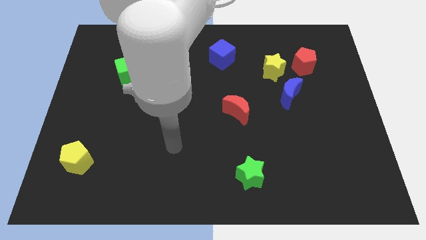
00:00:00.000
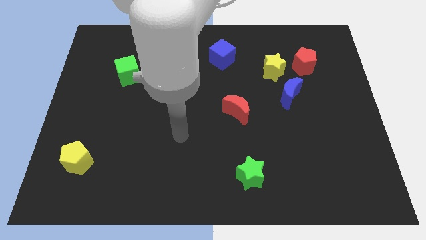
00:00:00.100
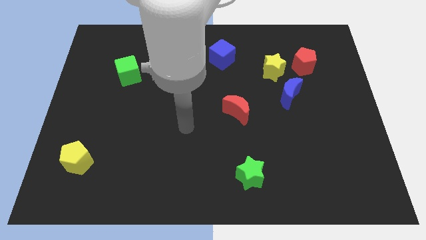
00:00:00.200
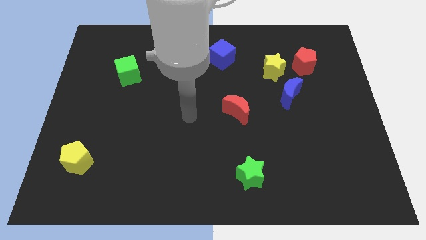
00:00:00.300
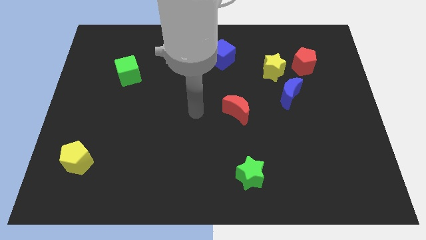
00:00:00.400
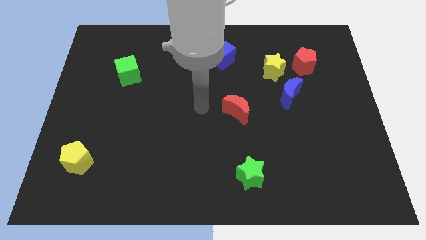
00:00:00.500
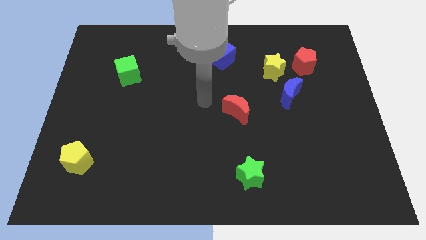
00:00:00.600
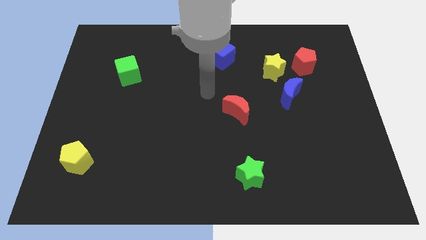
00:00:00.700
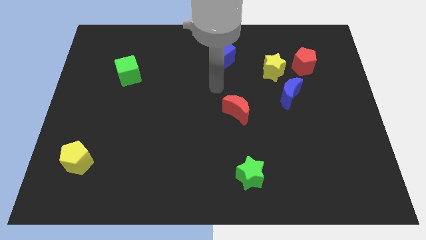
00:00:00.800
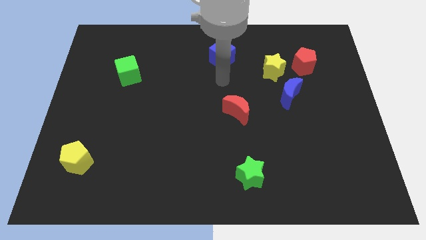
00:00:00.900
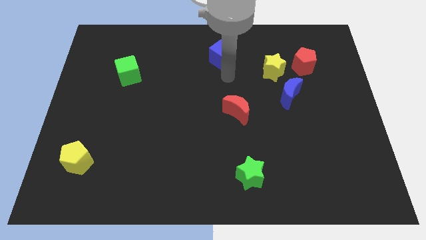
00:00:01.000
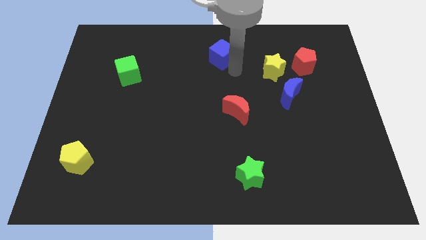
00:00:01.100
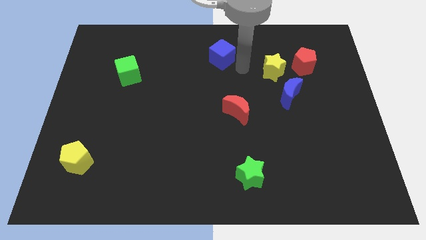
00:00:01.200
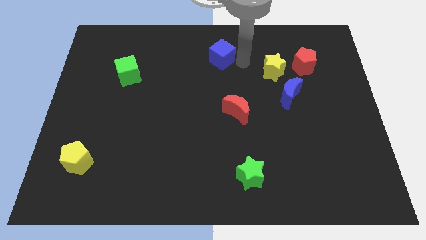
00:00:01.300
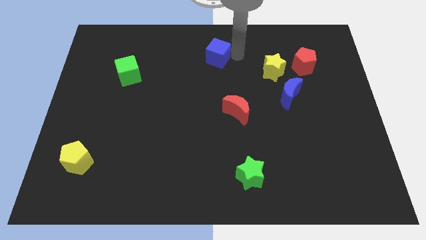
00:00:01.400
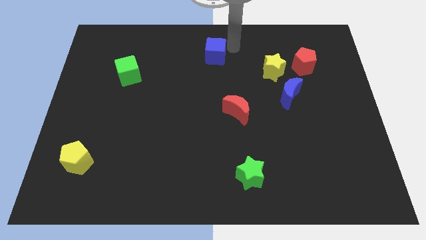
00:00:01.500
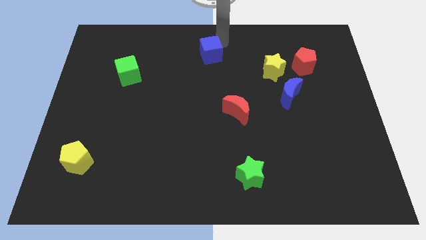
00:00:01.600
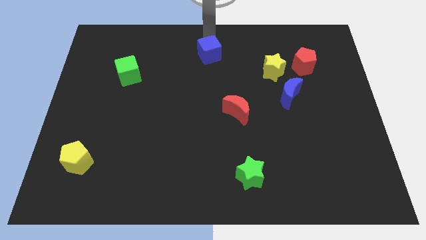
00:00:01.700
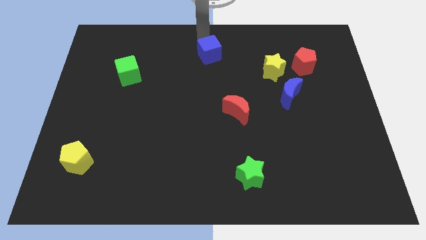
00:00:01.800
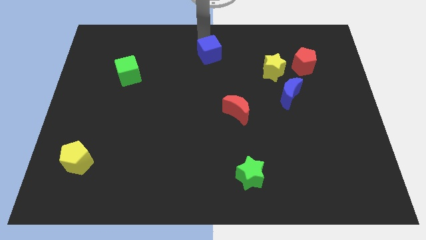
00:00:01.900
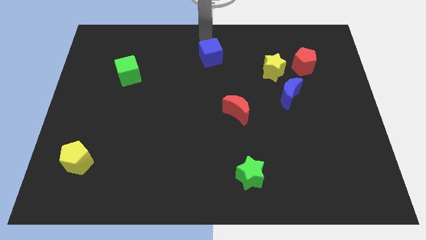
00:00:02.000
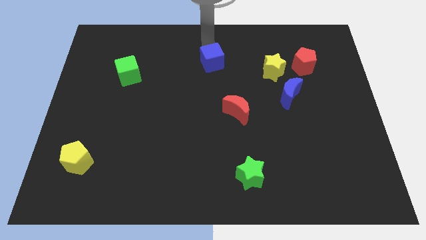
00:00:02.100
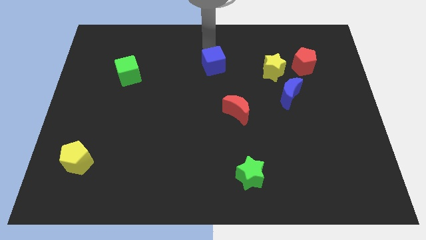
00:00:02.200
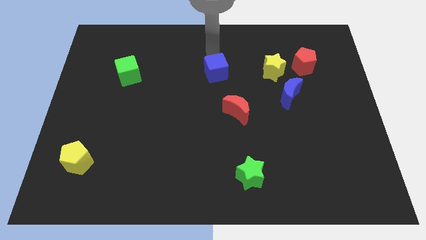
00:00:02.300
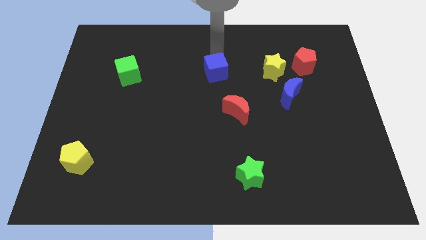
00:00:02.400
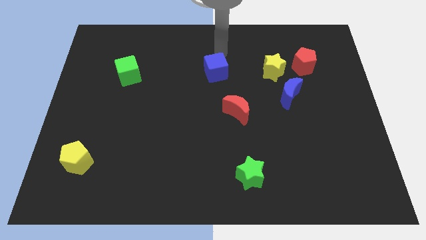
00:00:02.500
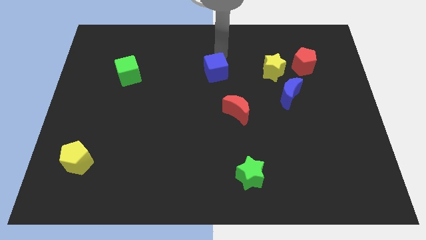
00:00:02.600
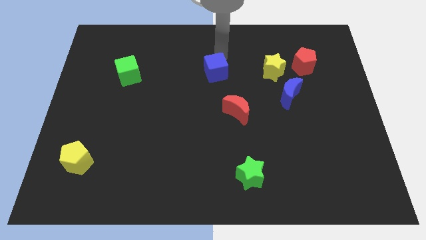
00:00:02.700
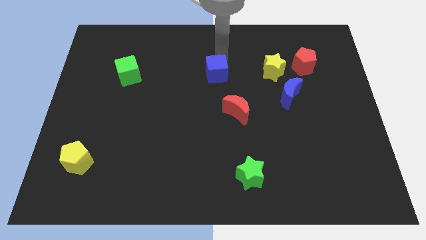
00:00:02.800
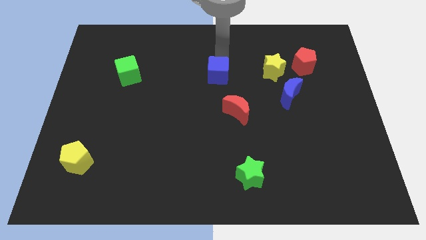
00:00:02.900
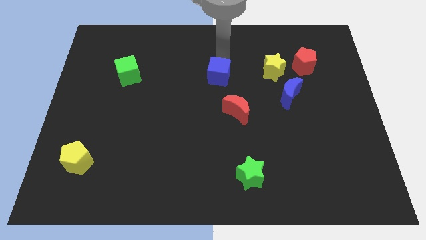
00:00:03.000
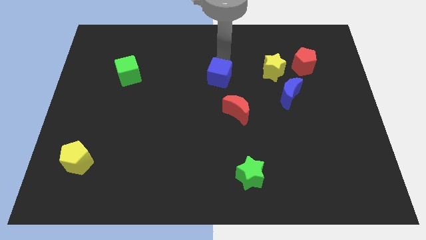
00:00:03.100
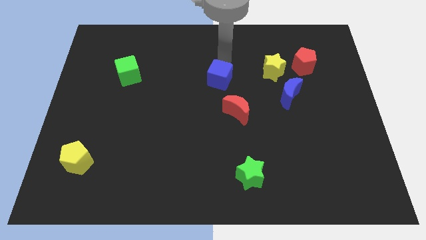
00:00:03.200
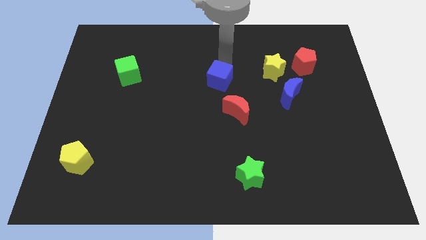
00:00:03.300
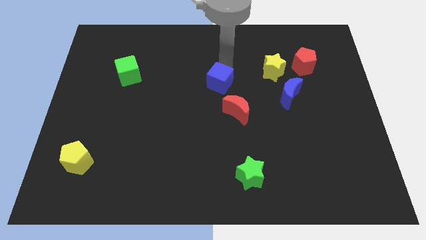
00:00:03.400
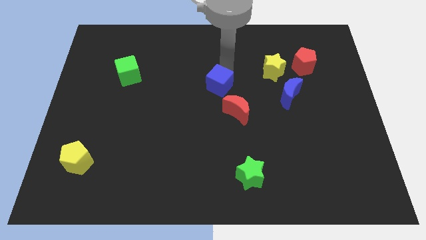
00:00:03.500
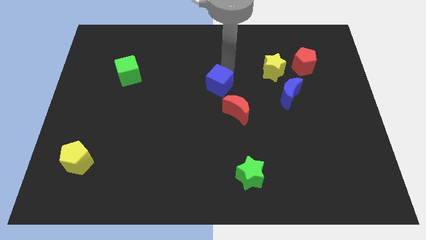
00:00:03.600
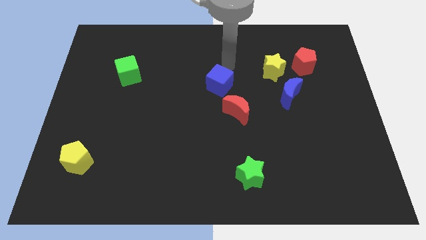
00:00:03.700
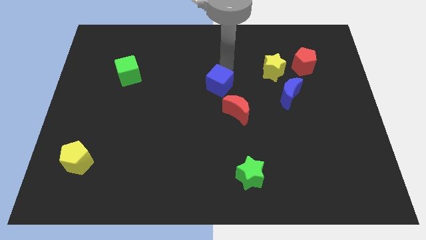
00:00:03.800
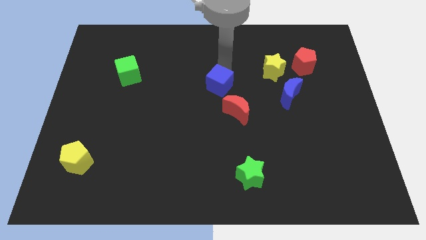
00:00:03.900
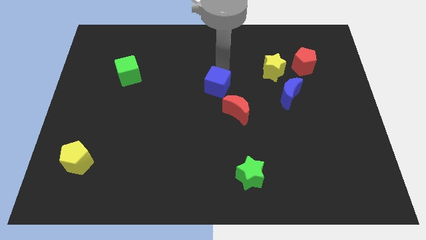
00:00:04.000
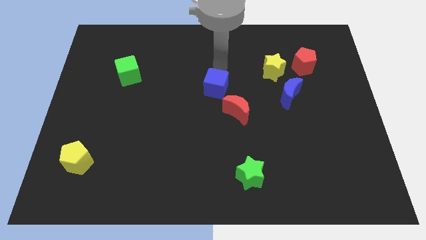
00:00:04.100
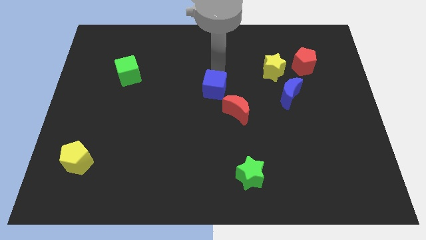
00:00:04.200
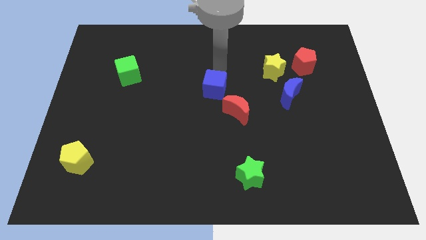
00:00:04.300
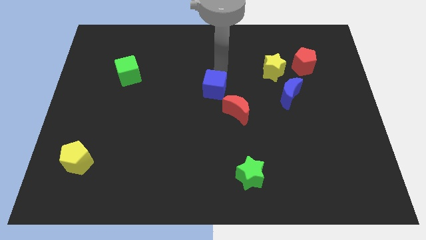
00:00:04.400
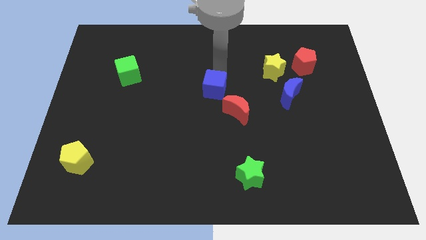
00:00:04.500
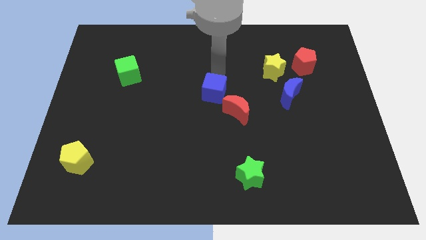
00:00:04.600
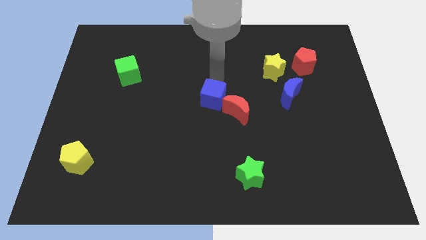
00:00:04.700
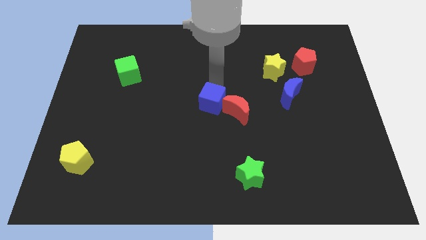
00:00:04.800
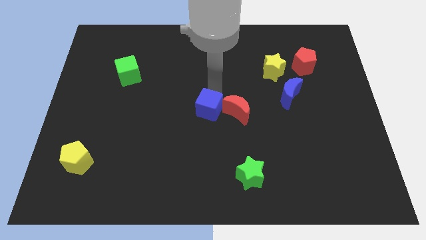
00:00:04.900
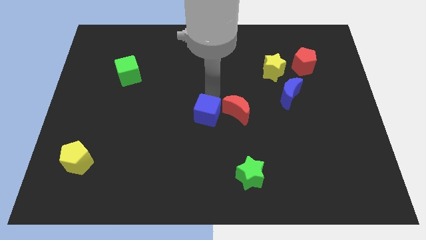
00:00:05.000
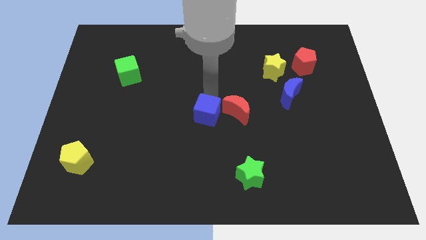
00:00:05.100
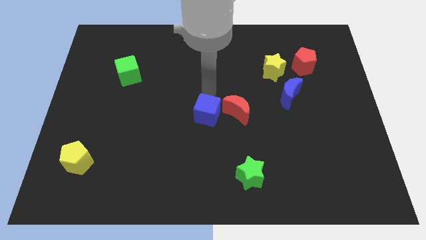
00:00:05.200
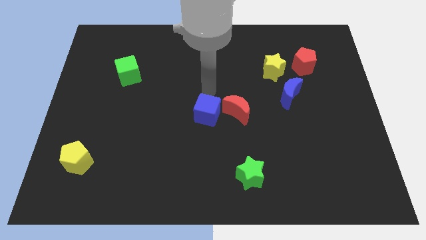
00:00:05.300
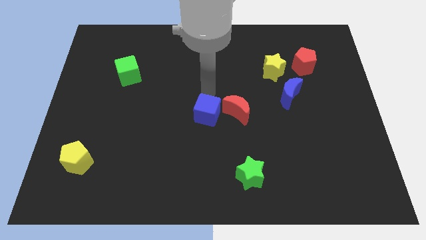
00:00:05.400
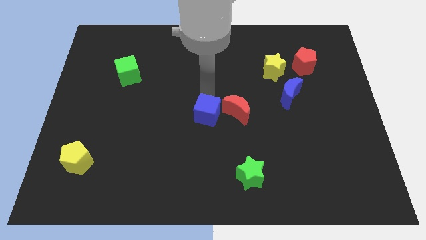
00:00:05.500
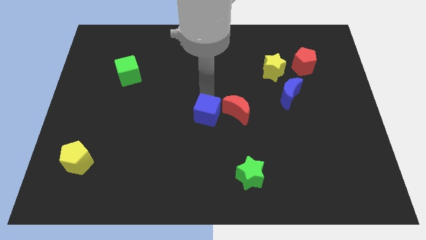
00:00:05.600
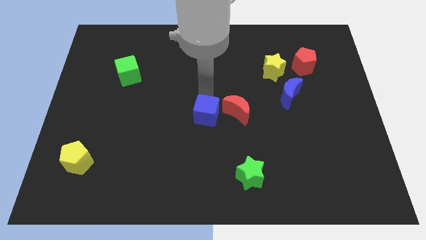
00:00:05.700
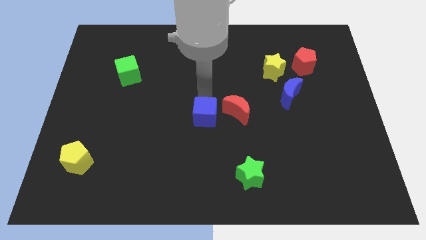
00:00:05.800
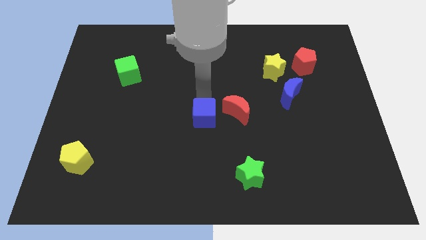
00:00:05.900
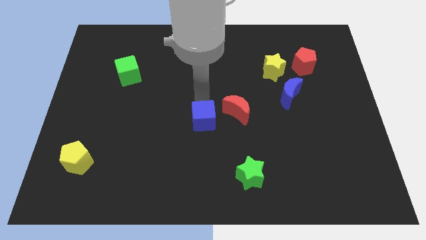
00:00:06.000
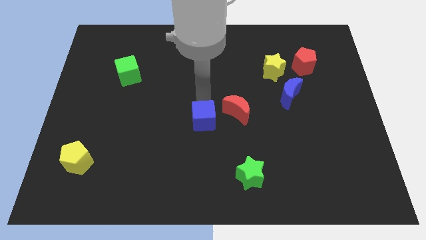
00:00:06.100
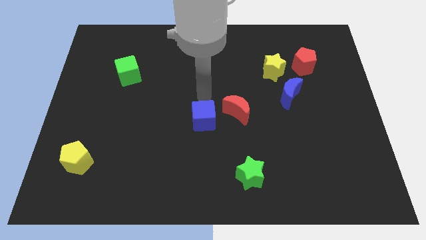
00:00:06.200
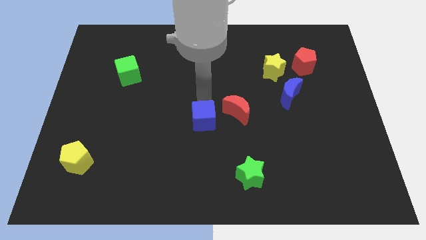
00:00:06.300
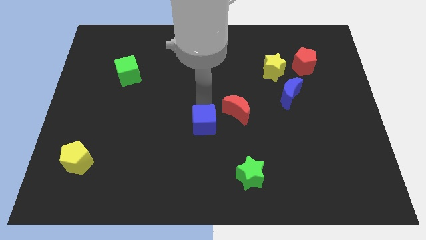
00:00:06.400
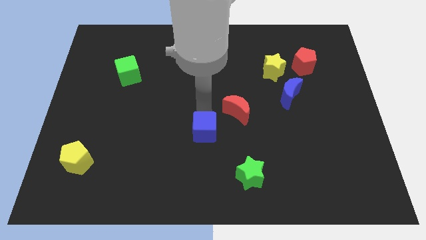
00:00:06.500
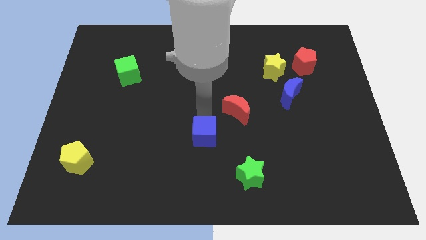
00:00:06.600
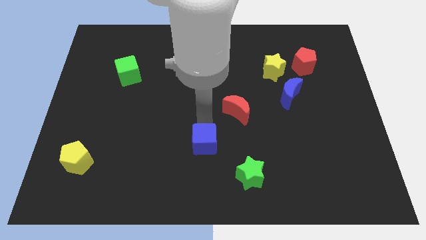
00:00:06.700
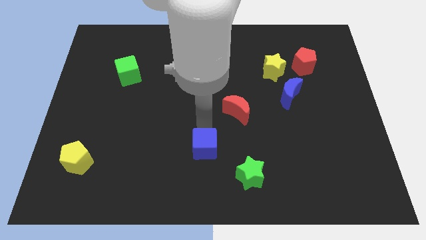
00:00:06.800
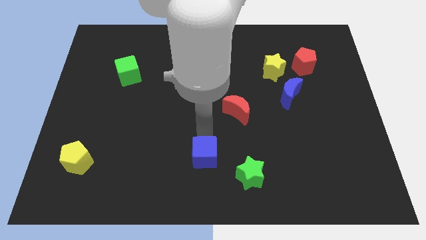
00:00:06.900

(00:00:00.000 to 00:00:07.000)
move the blue cube to the bottom

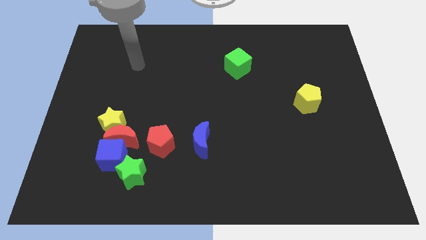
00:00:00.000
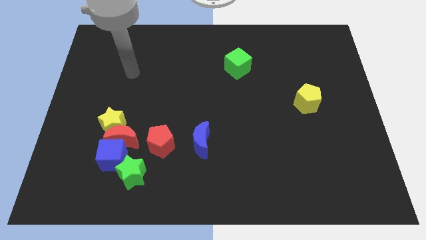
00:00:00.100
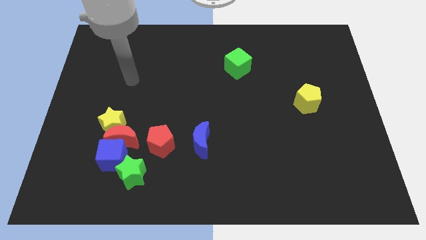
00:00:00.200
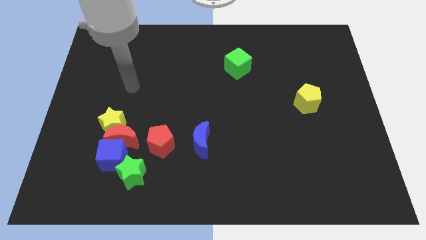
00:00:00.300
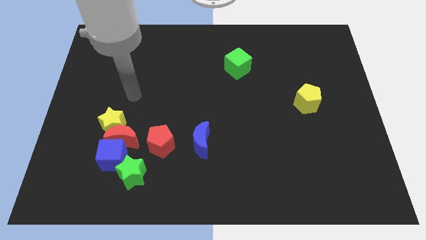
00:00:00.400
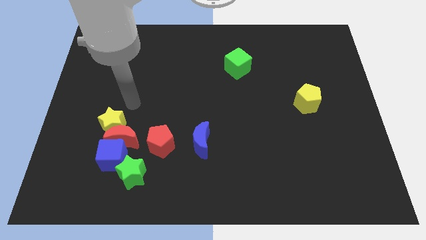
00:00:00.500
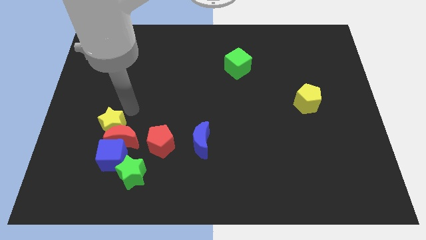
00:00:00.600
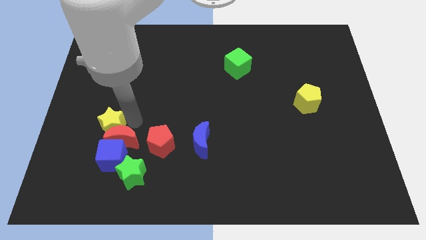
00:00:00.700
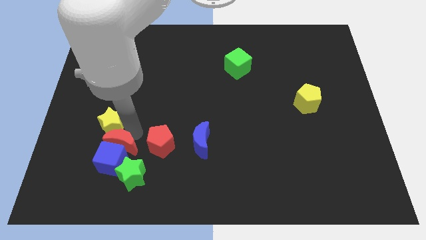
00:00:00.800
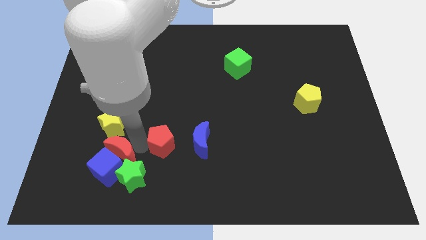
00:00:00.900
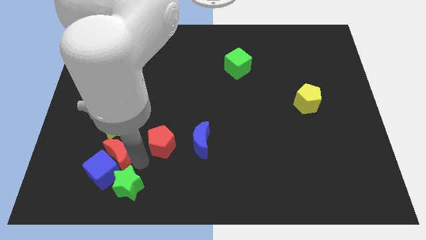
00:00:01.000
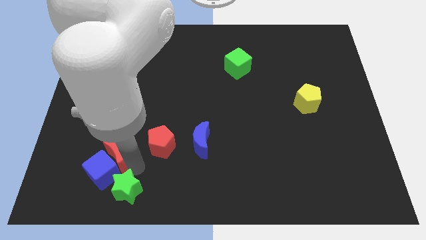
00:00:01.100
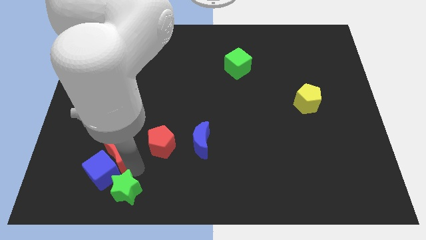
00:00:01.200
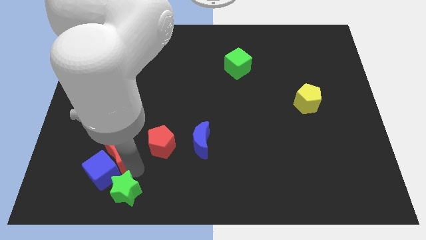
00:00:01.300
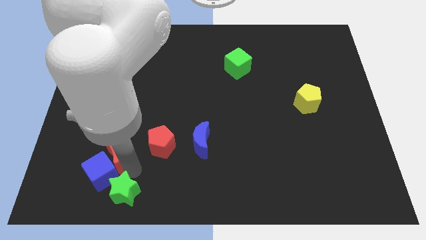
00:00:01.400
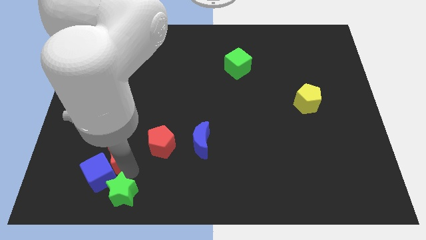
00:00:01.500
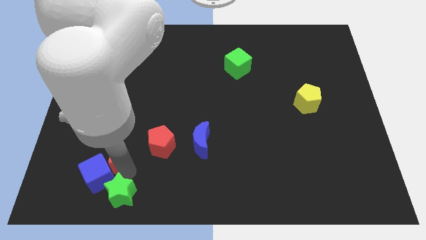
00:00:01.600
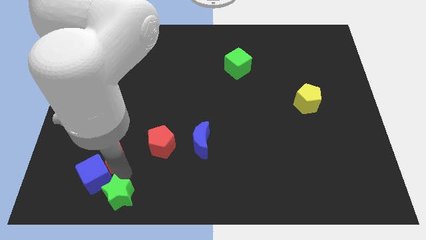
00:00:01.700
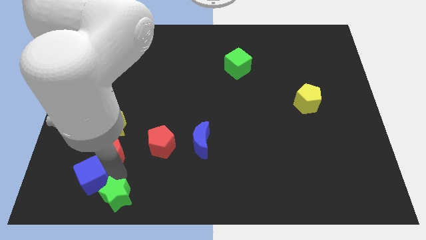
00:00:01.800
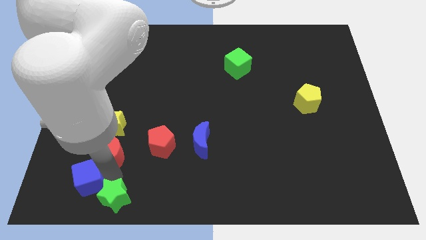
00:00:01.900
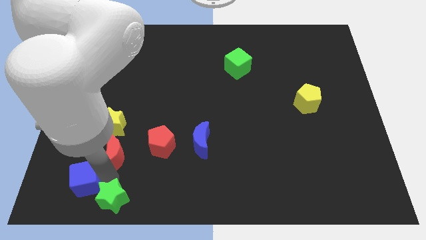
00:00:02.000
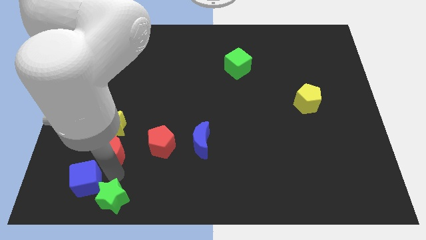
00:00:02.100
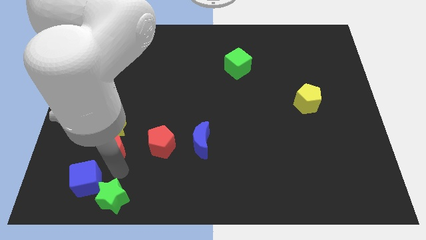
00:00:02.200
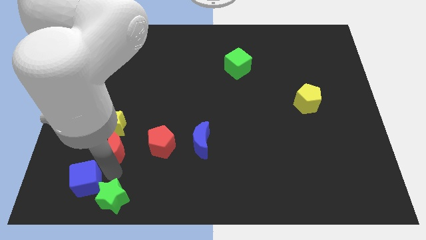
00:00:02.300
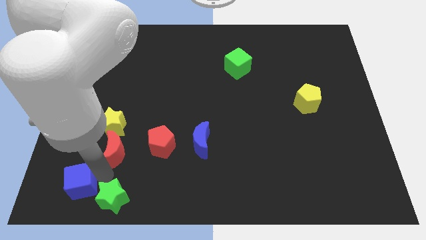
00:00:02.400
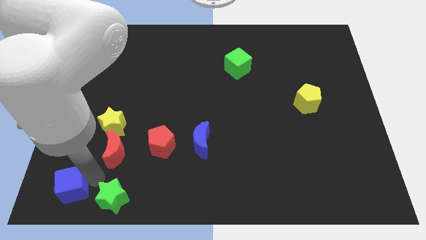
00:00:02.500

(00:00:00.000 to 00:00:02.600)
put the blue cube to the bottom left corner
